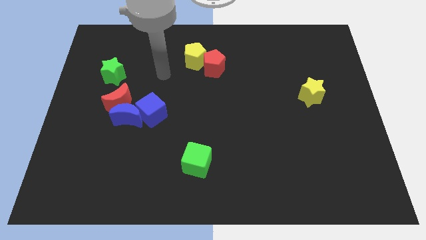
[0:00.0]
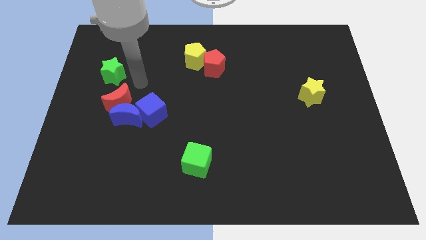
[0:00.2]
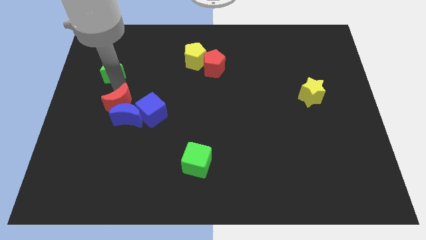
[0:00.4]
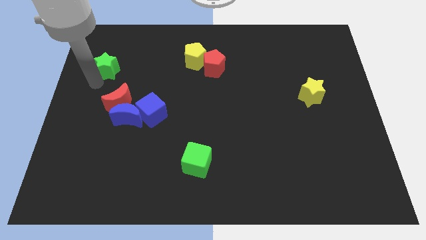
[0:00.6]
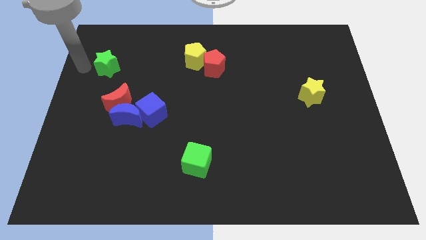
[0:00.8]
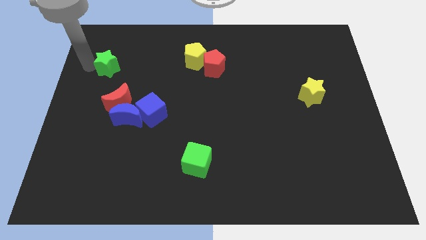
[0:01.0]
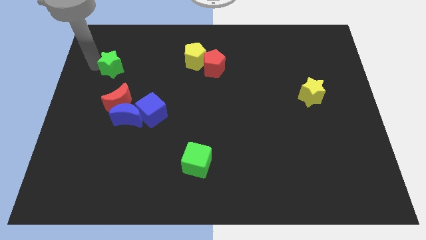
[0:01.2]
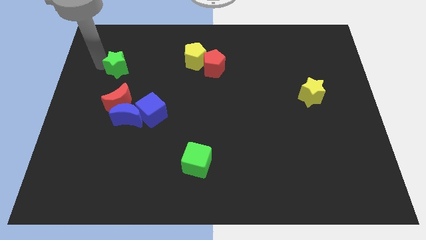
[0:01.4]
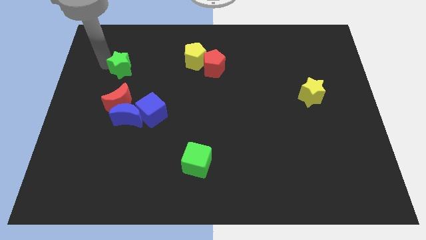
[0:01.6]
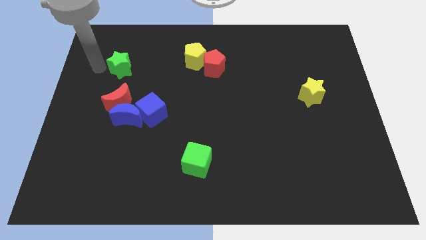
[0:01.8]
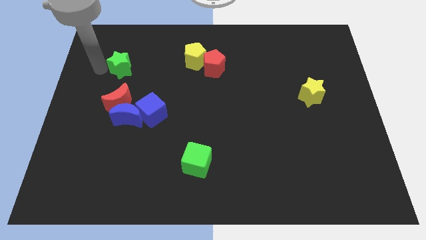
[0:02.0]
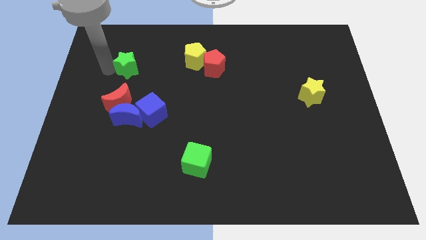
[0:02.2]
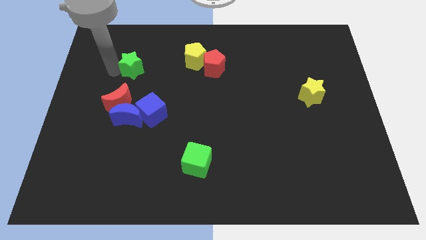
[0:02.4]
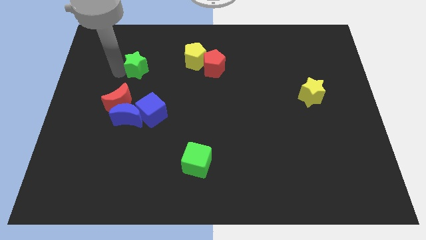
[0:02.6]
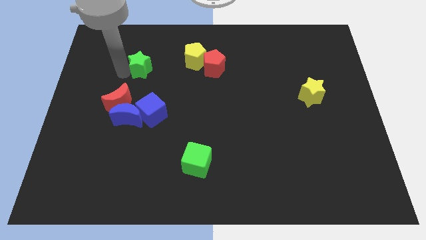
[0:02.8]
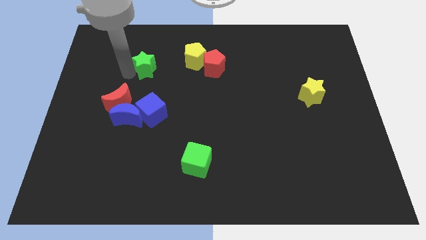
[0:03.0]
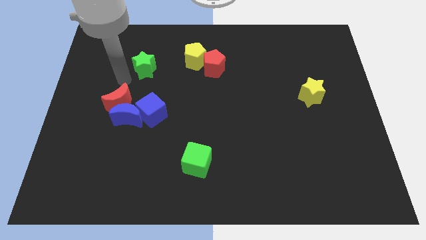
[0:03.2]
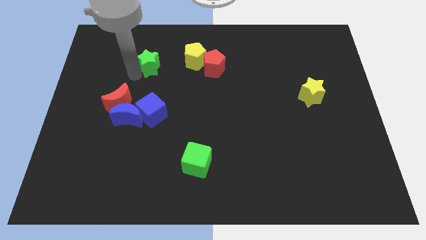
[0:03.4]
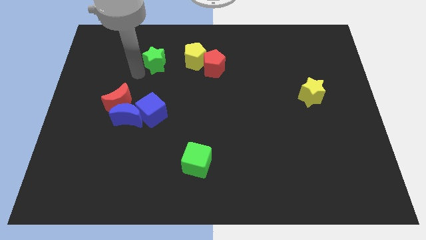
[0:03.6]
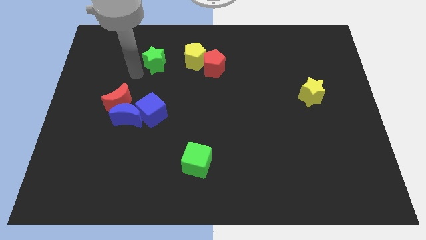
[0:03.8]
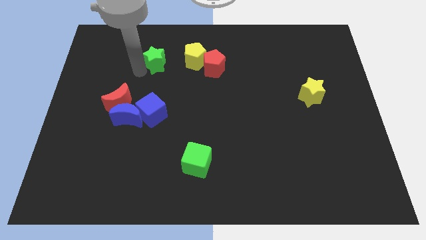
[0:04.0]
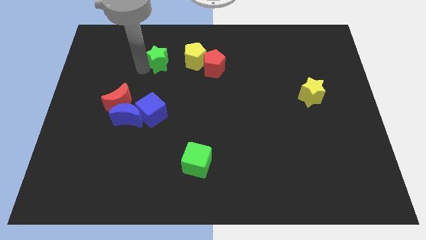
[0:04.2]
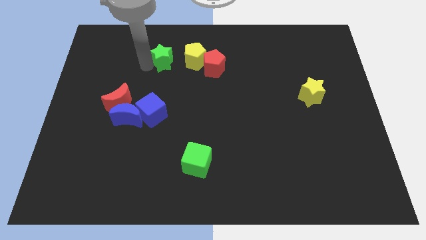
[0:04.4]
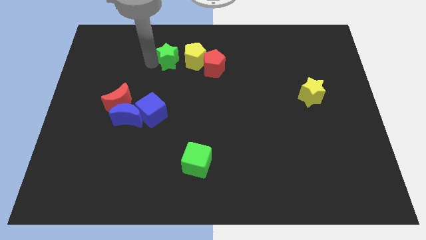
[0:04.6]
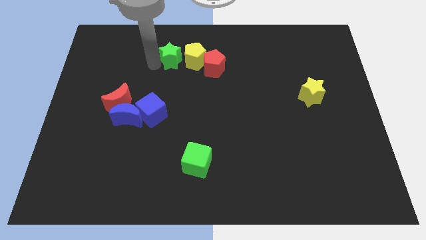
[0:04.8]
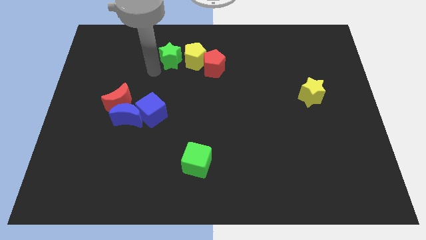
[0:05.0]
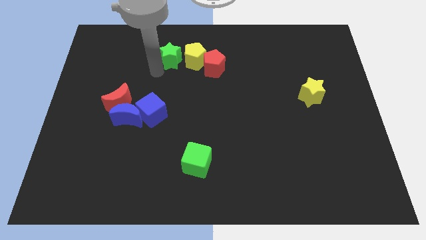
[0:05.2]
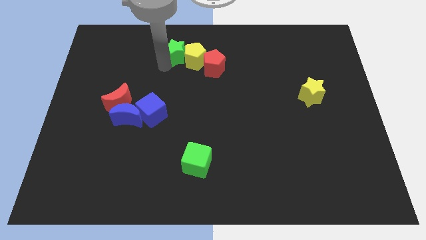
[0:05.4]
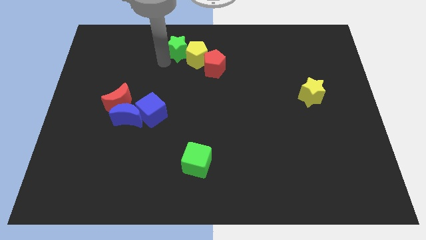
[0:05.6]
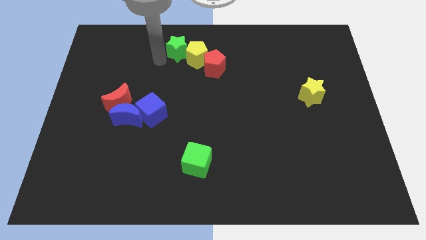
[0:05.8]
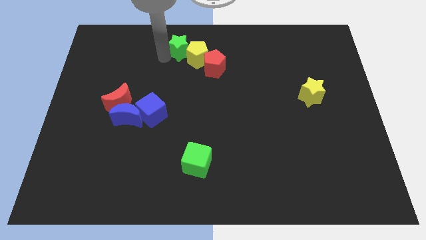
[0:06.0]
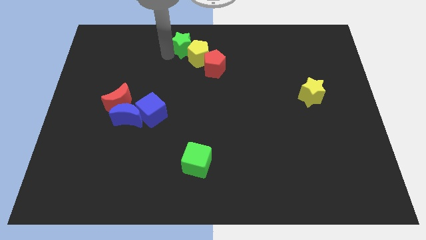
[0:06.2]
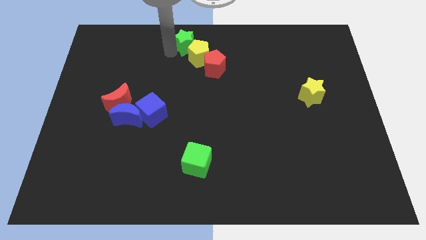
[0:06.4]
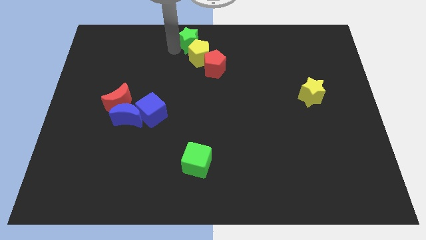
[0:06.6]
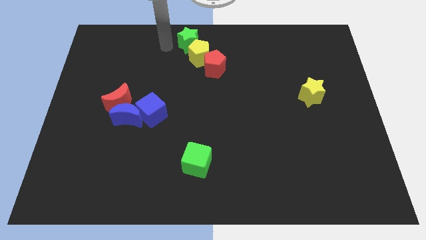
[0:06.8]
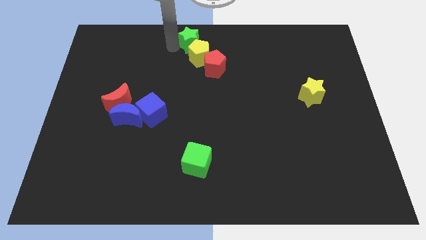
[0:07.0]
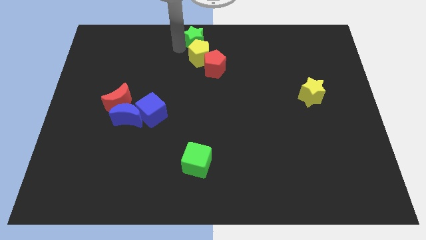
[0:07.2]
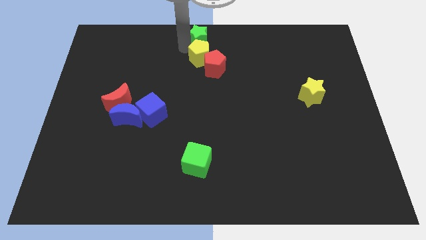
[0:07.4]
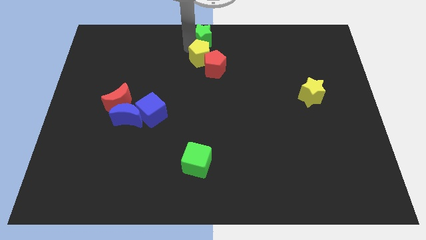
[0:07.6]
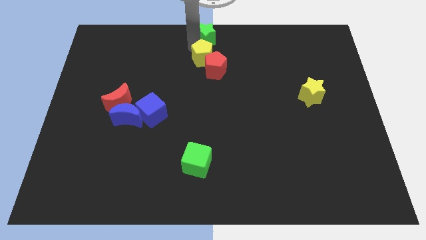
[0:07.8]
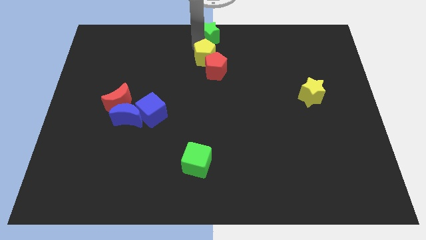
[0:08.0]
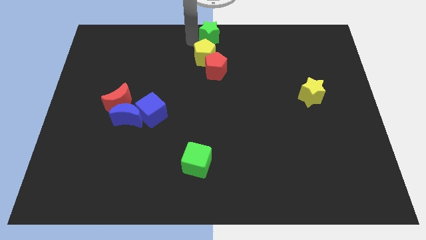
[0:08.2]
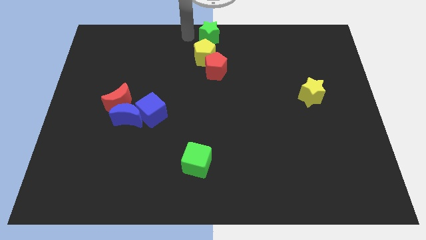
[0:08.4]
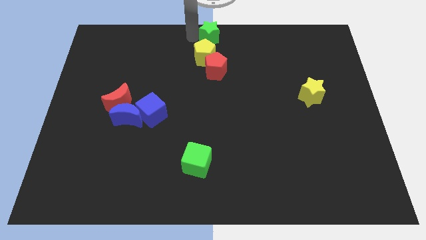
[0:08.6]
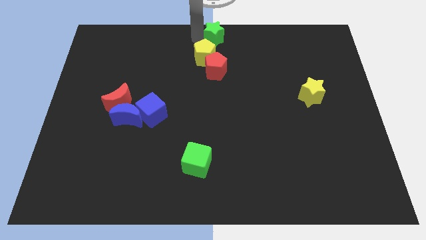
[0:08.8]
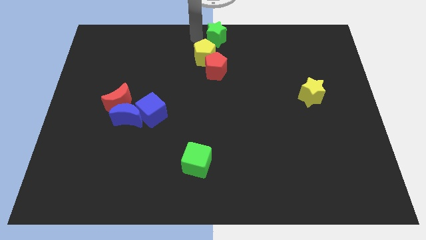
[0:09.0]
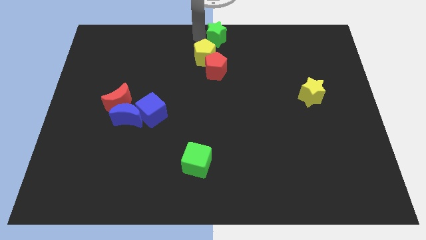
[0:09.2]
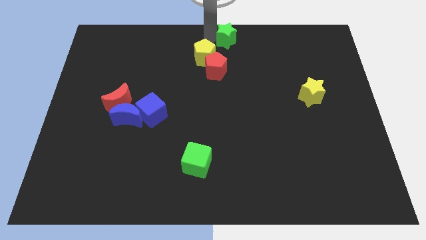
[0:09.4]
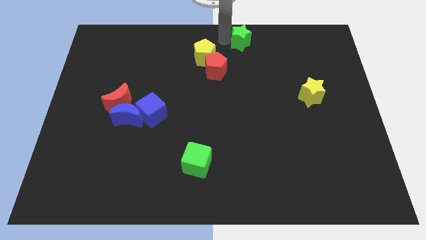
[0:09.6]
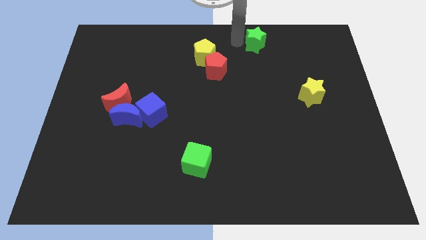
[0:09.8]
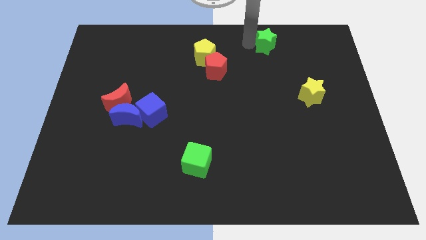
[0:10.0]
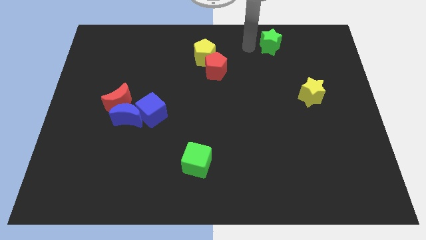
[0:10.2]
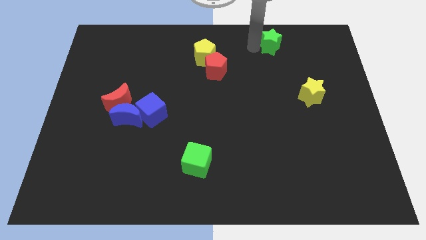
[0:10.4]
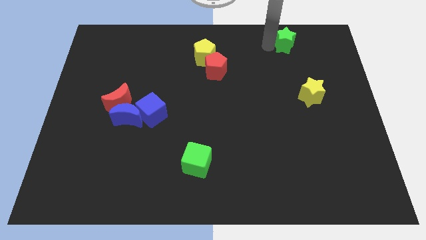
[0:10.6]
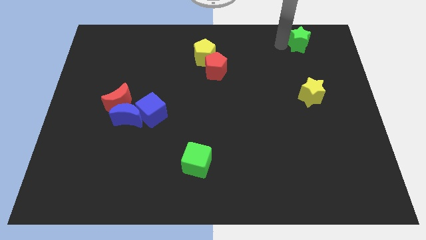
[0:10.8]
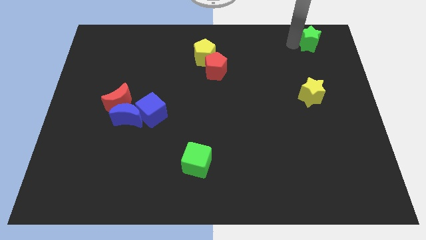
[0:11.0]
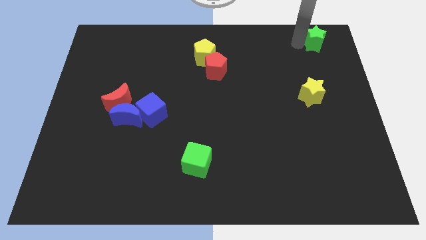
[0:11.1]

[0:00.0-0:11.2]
push the green star to the top right corner
